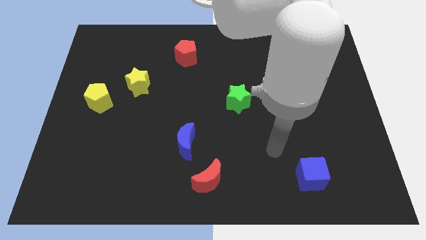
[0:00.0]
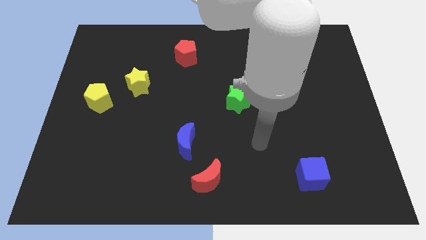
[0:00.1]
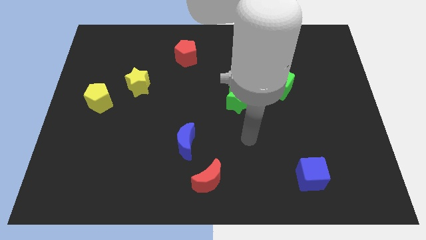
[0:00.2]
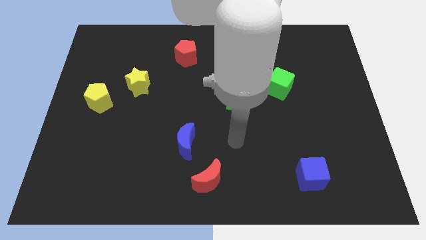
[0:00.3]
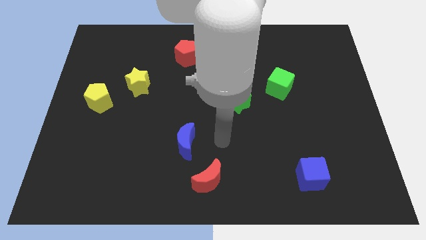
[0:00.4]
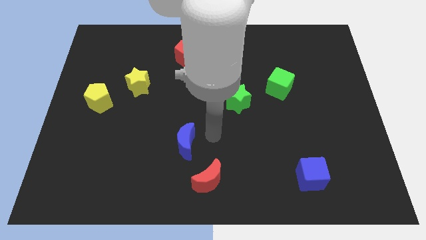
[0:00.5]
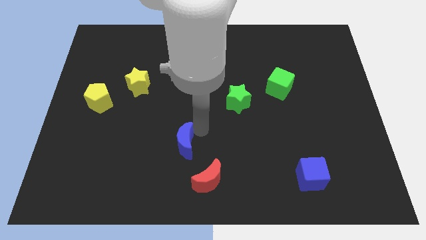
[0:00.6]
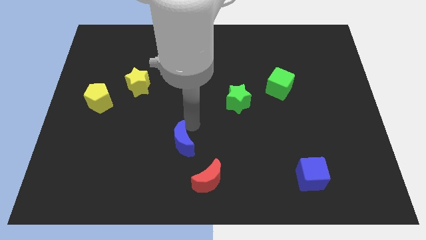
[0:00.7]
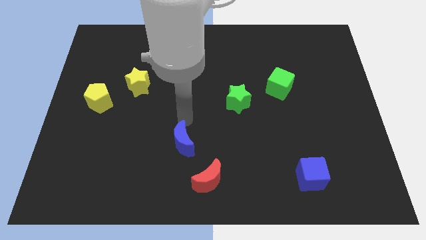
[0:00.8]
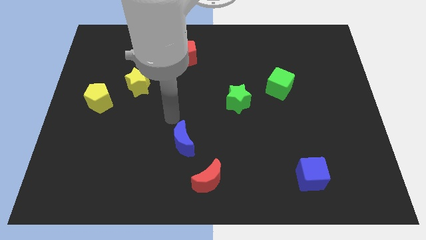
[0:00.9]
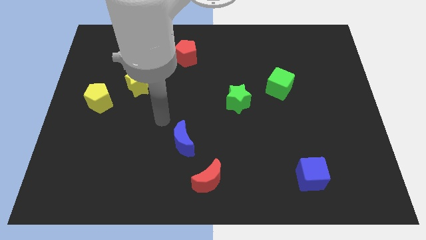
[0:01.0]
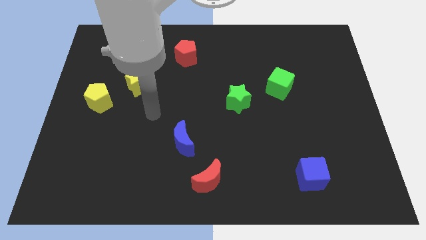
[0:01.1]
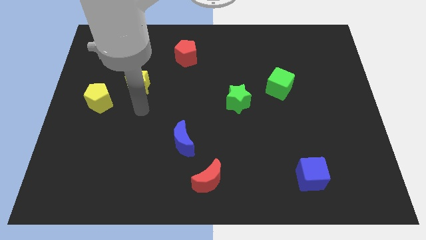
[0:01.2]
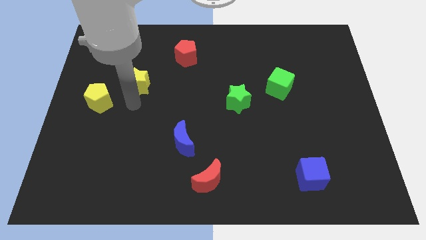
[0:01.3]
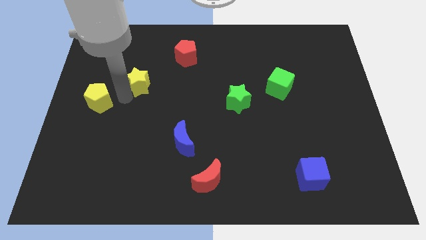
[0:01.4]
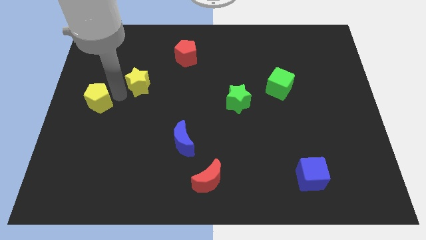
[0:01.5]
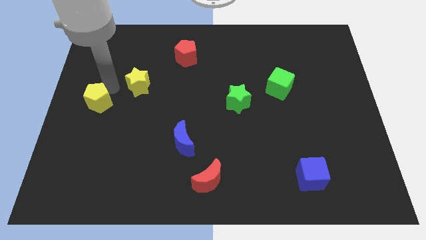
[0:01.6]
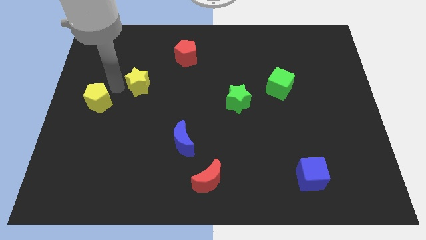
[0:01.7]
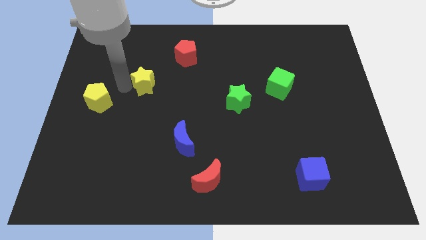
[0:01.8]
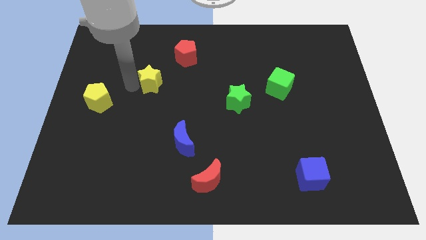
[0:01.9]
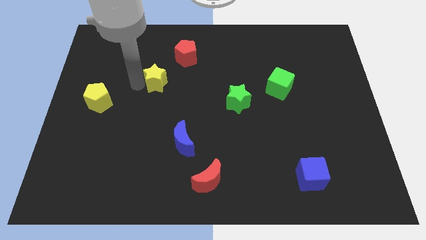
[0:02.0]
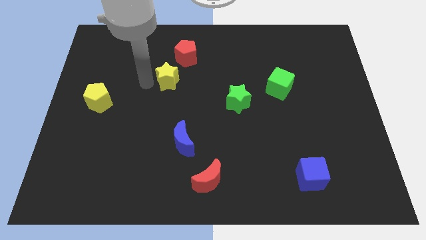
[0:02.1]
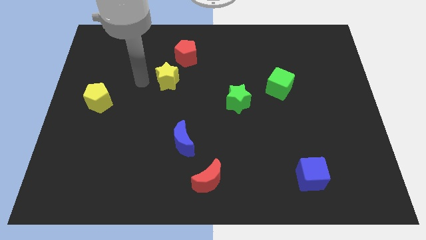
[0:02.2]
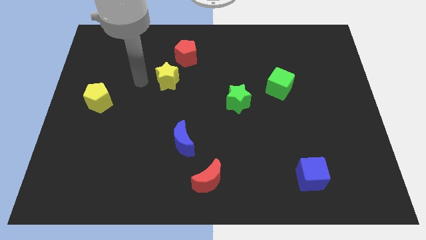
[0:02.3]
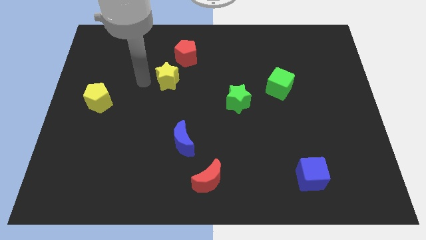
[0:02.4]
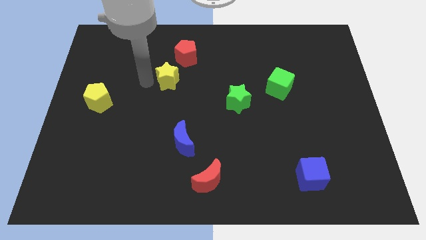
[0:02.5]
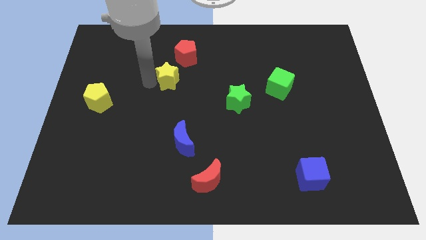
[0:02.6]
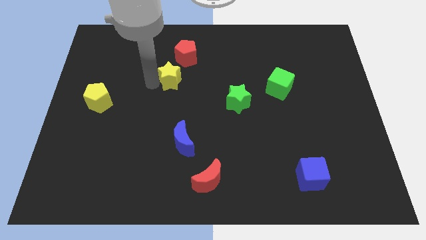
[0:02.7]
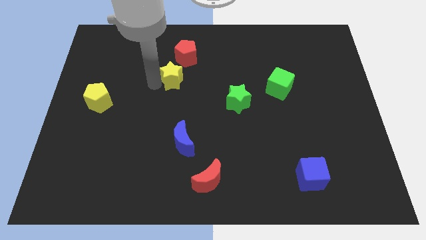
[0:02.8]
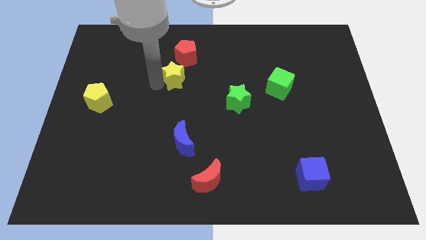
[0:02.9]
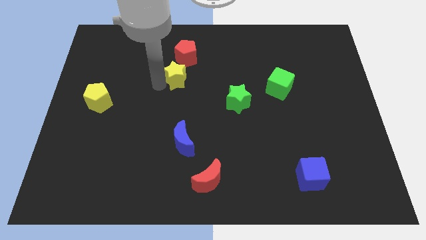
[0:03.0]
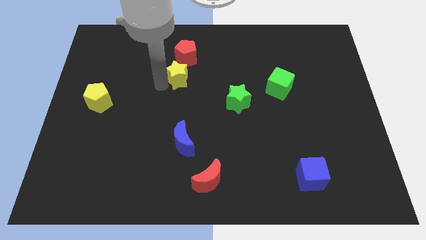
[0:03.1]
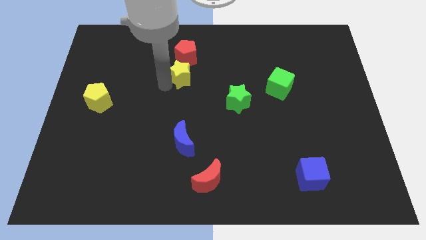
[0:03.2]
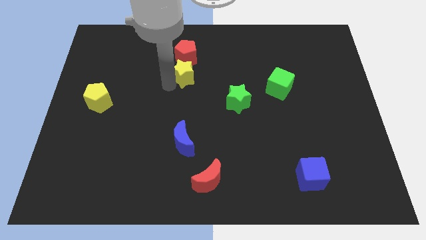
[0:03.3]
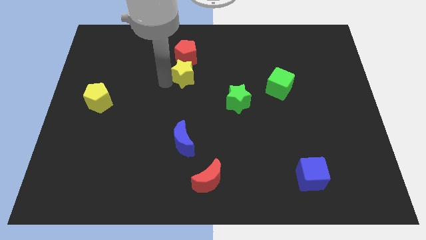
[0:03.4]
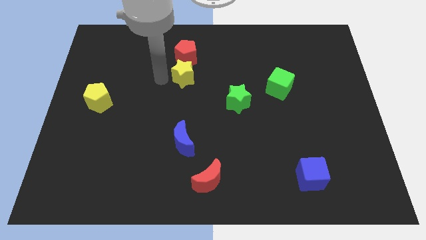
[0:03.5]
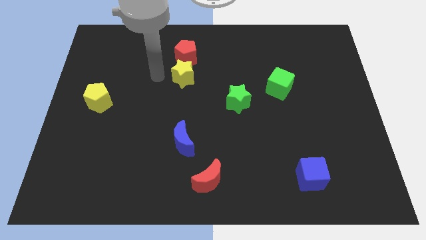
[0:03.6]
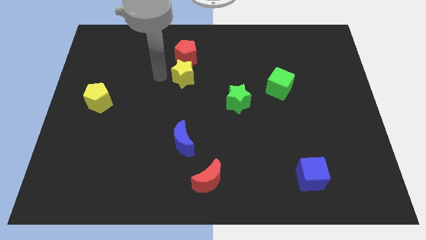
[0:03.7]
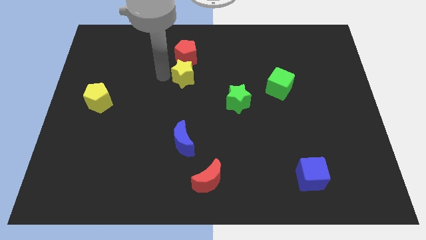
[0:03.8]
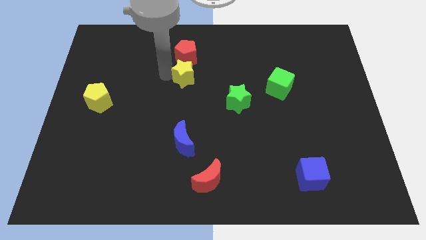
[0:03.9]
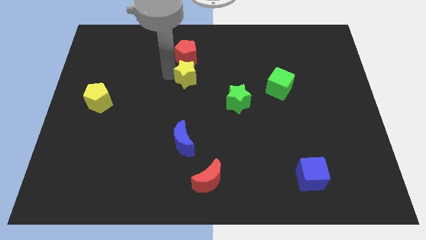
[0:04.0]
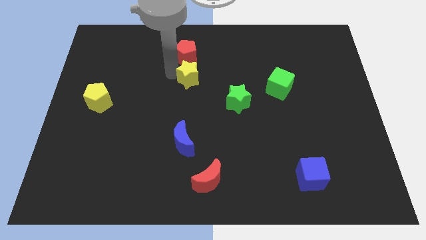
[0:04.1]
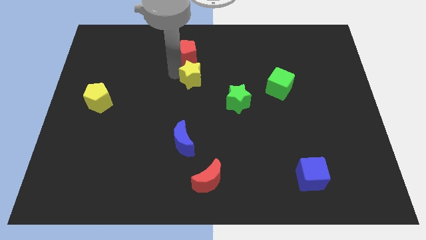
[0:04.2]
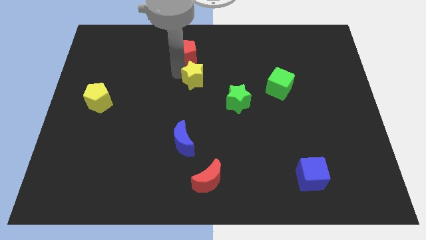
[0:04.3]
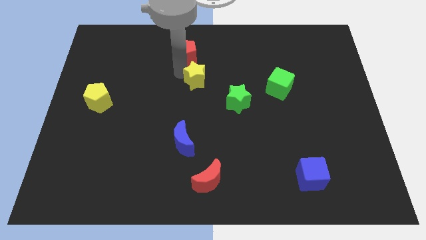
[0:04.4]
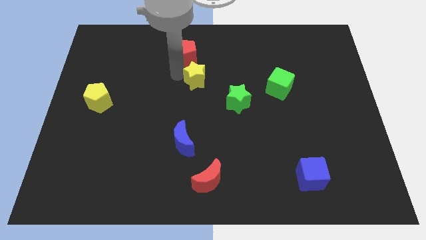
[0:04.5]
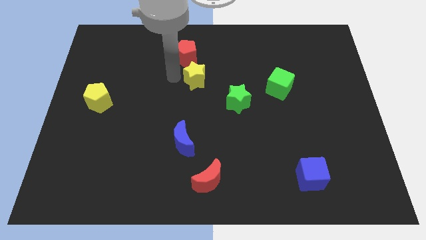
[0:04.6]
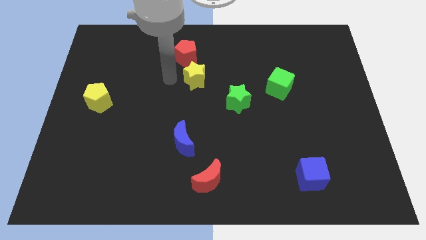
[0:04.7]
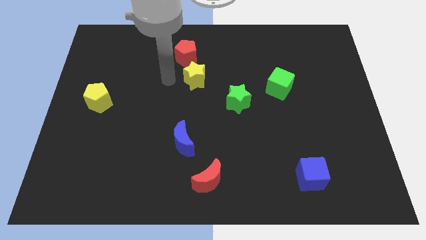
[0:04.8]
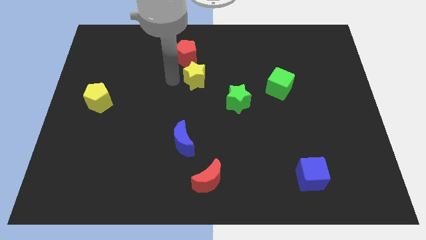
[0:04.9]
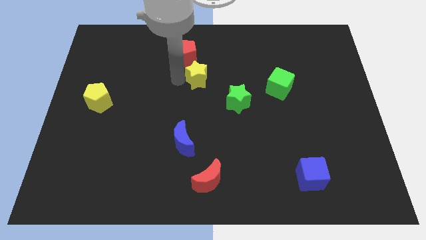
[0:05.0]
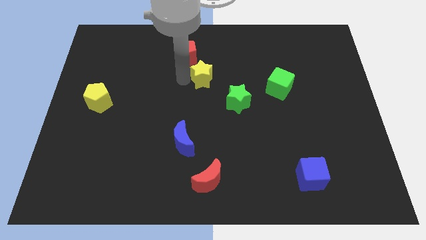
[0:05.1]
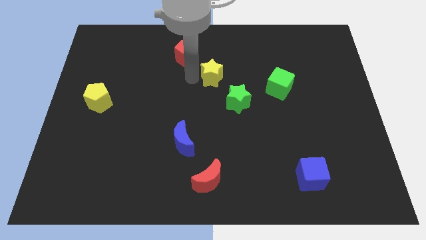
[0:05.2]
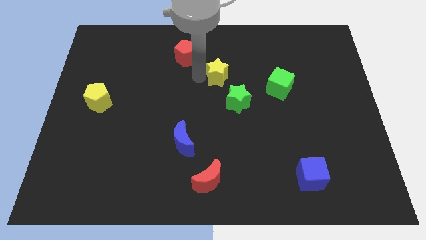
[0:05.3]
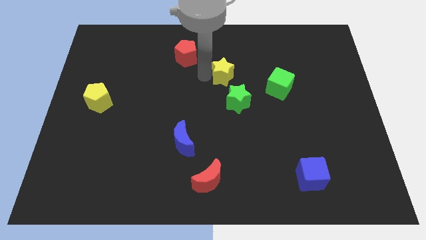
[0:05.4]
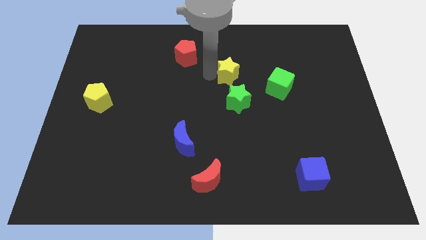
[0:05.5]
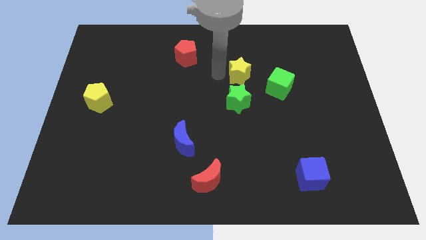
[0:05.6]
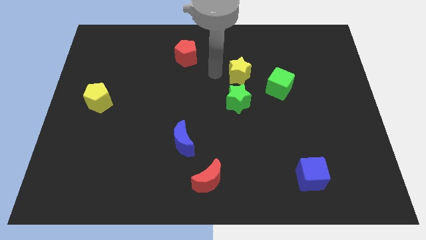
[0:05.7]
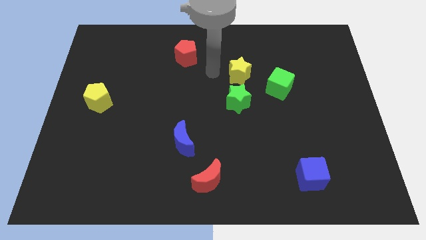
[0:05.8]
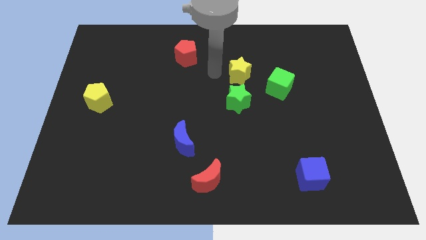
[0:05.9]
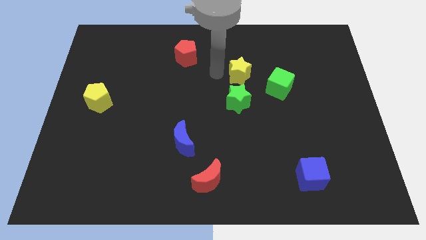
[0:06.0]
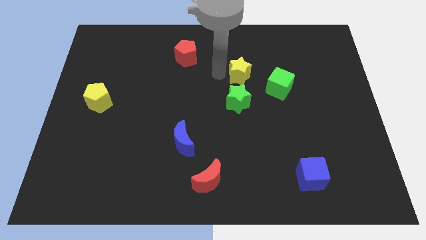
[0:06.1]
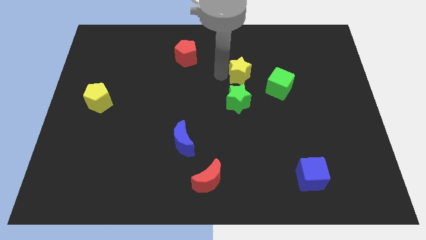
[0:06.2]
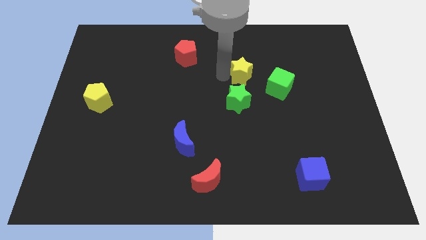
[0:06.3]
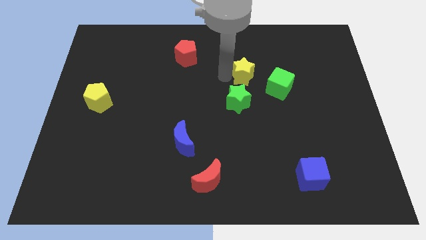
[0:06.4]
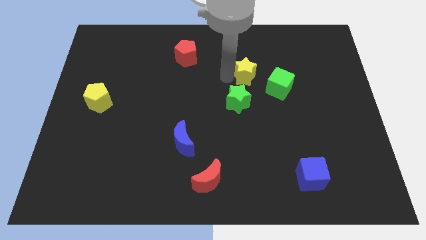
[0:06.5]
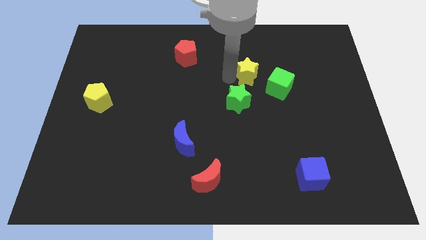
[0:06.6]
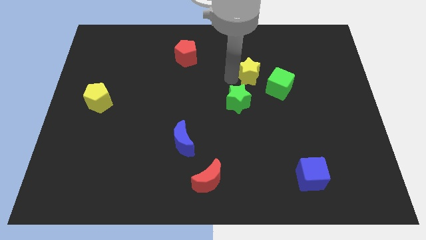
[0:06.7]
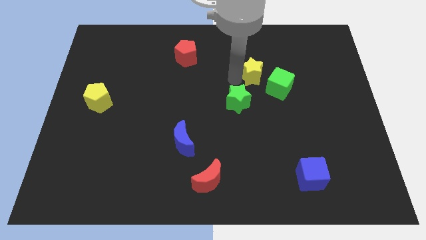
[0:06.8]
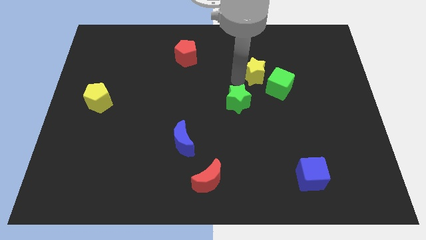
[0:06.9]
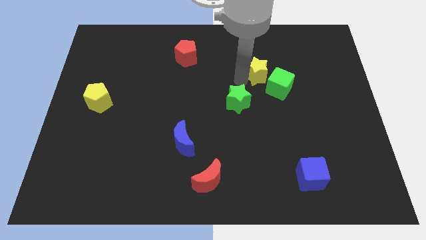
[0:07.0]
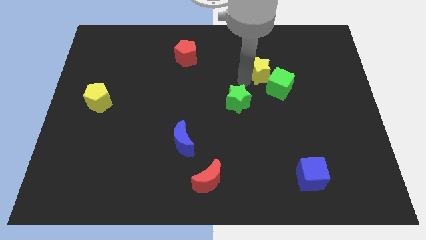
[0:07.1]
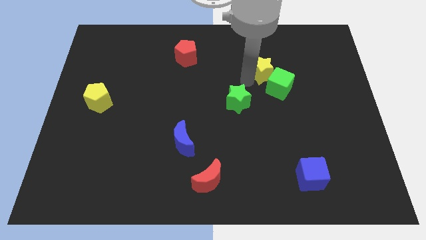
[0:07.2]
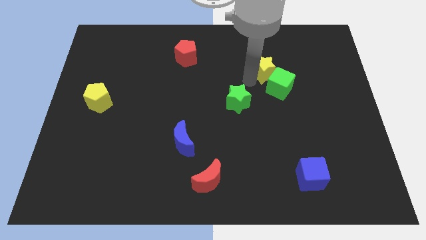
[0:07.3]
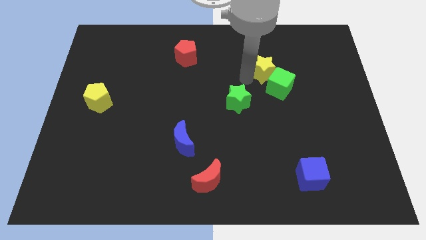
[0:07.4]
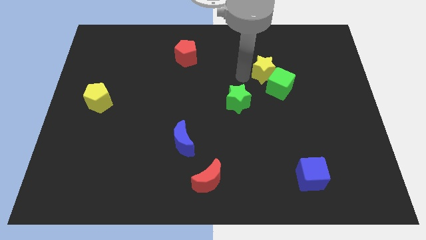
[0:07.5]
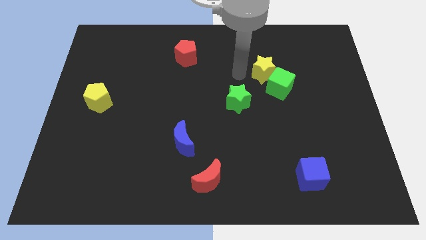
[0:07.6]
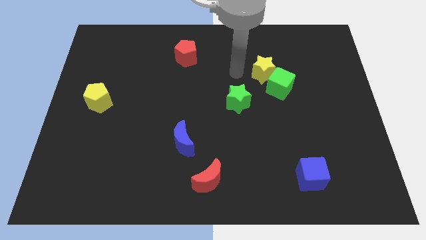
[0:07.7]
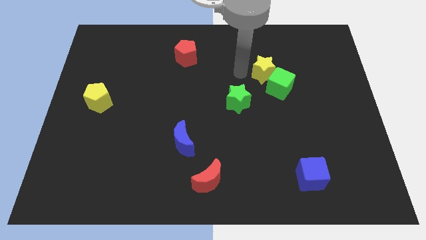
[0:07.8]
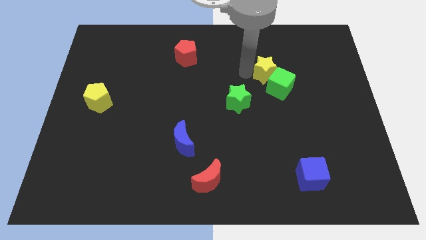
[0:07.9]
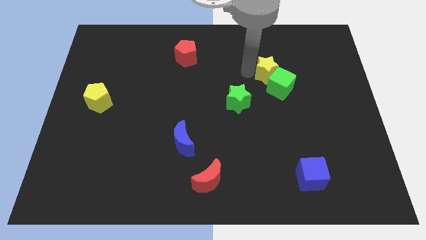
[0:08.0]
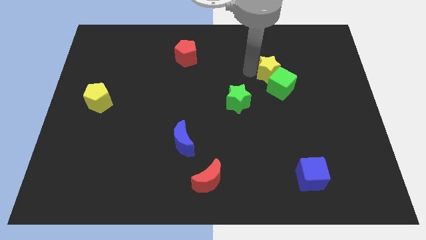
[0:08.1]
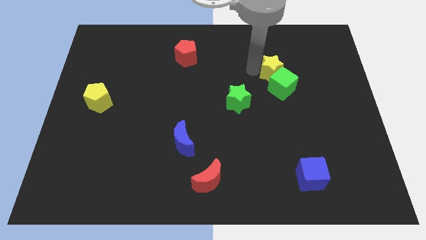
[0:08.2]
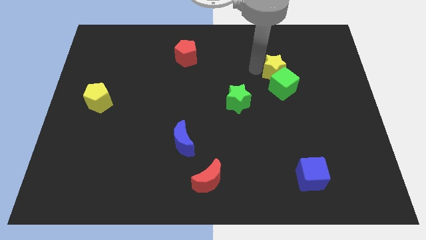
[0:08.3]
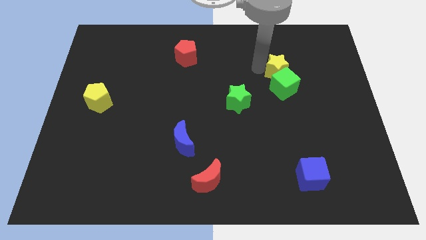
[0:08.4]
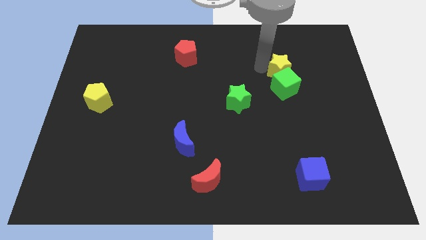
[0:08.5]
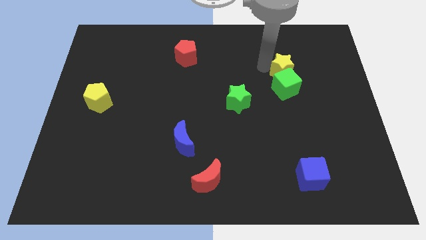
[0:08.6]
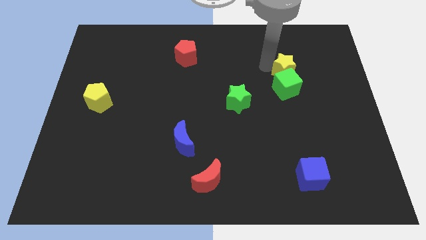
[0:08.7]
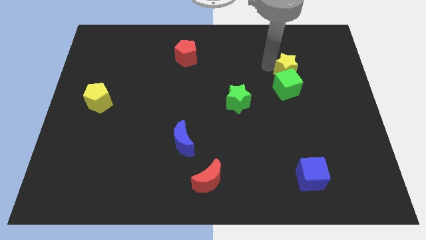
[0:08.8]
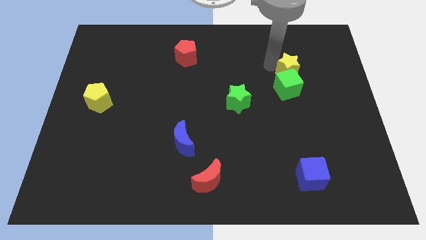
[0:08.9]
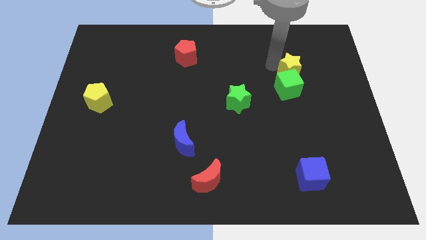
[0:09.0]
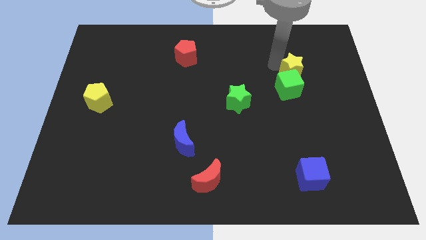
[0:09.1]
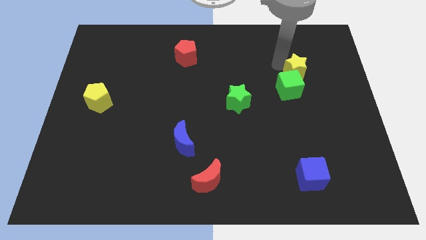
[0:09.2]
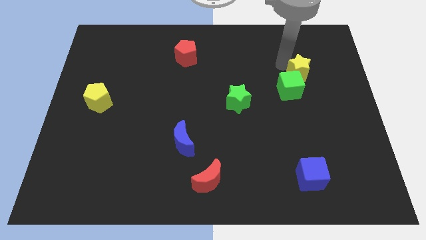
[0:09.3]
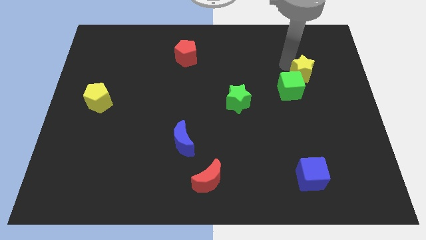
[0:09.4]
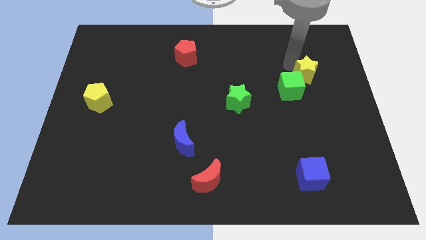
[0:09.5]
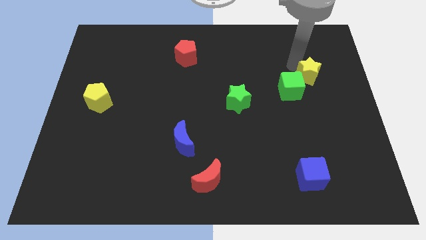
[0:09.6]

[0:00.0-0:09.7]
move the yellow star to the right side of the green cube
